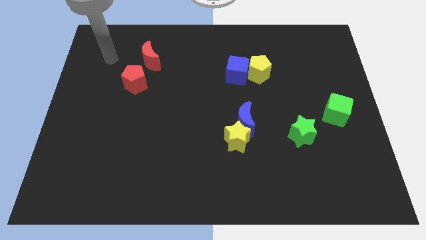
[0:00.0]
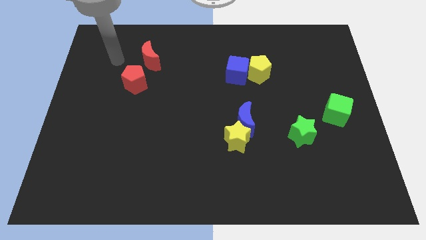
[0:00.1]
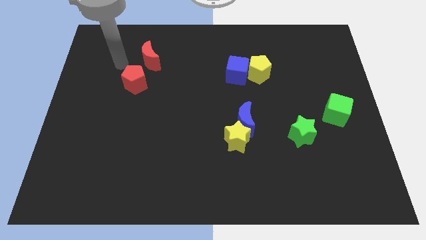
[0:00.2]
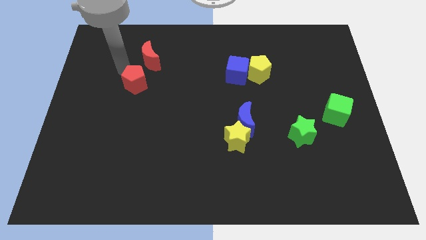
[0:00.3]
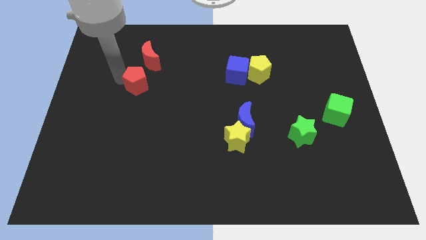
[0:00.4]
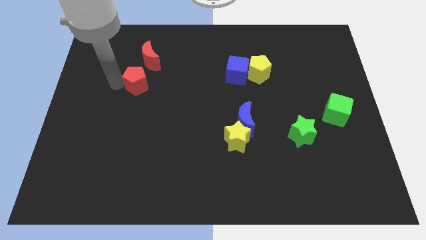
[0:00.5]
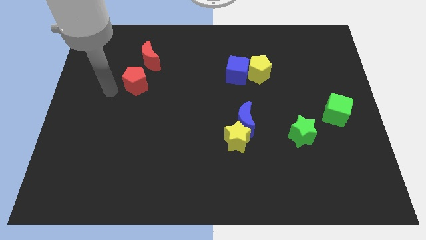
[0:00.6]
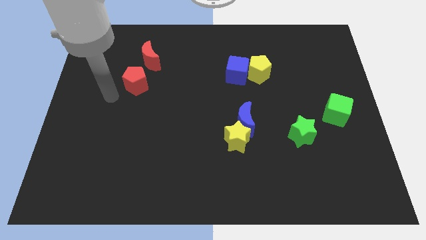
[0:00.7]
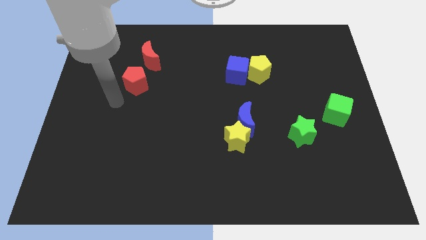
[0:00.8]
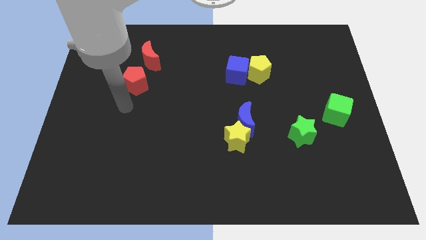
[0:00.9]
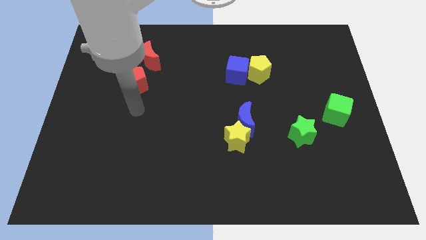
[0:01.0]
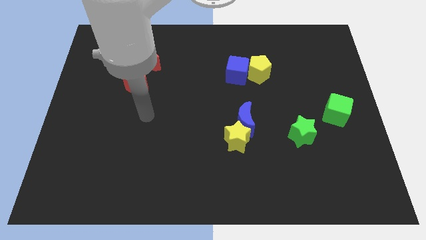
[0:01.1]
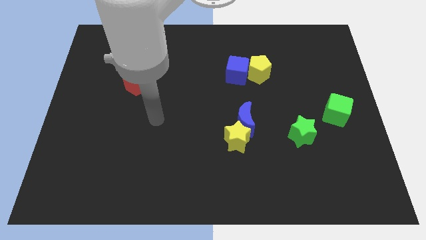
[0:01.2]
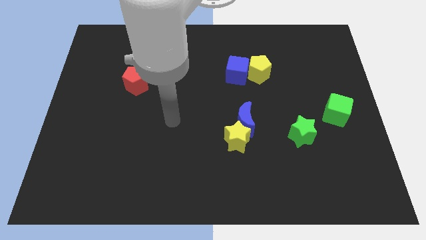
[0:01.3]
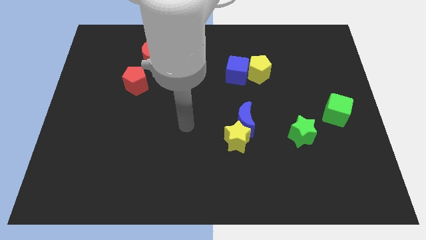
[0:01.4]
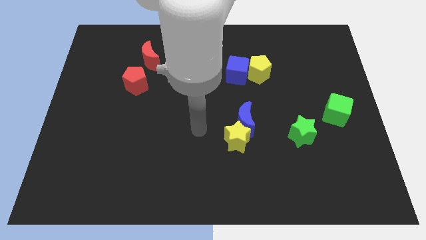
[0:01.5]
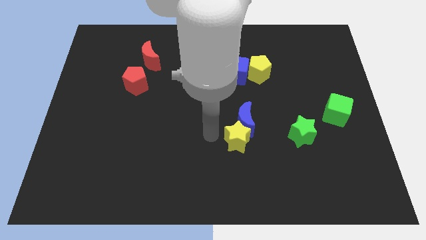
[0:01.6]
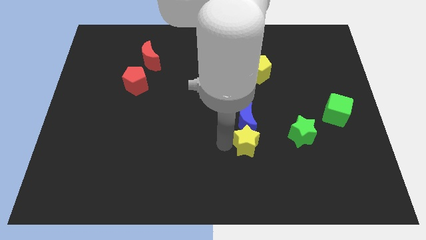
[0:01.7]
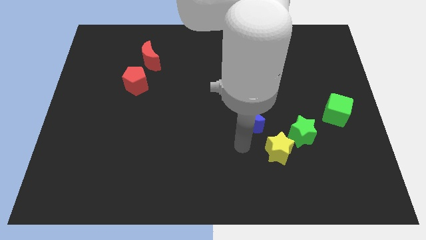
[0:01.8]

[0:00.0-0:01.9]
separate the blue moon from the yellow star

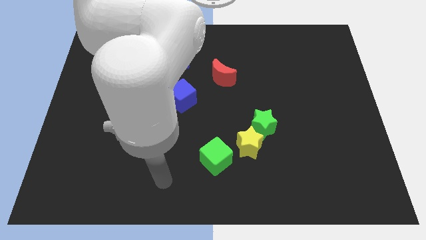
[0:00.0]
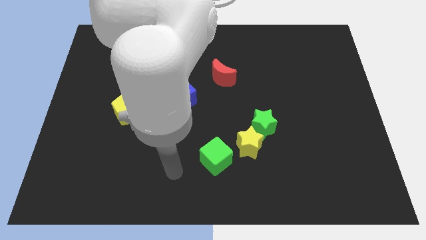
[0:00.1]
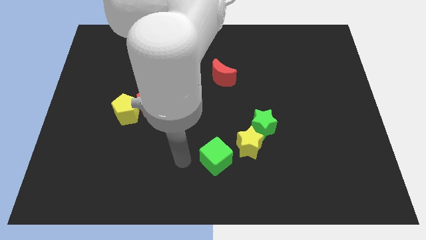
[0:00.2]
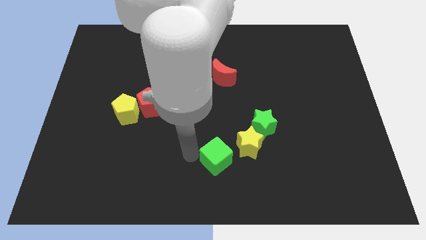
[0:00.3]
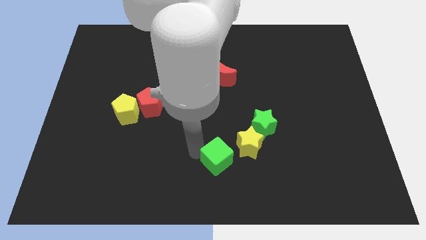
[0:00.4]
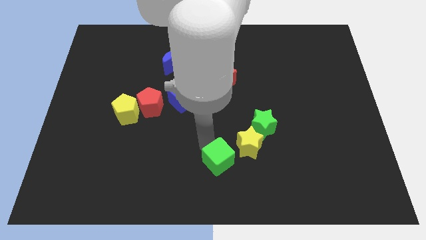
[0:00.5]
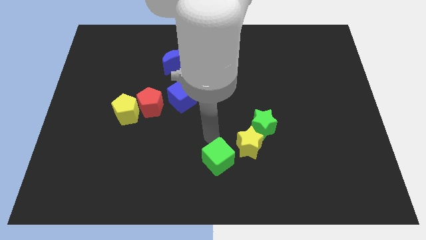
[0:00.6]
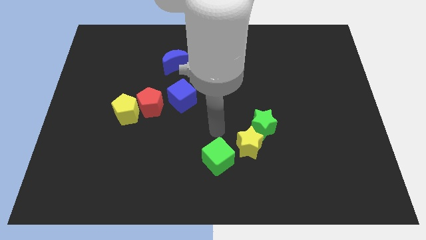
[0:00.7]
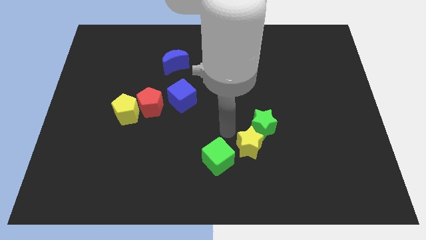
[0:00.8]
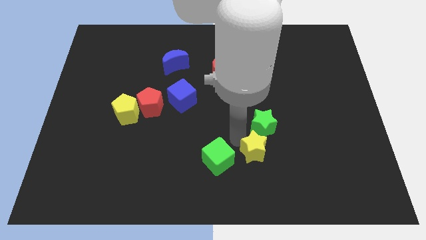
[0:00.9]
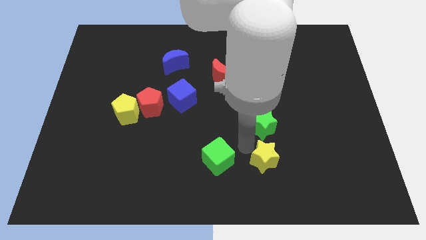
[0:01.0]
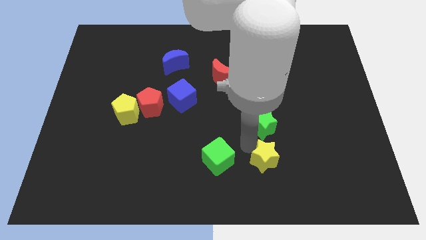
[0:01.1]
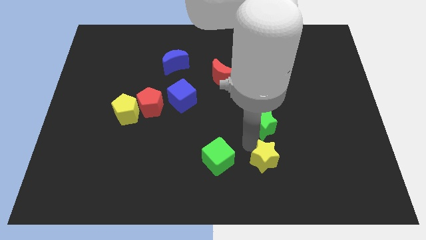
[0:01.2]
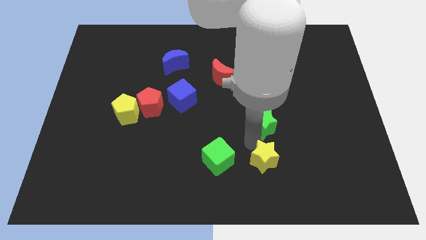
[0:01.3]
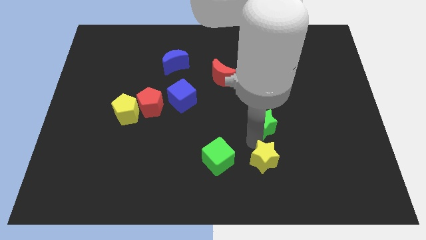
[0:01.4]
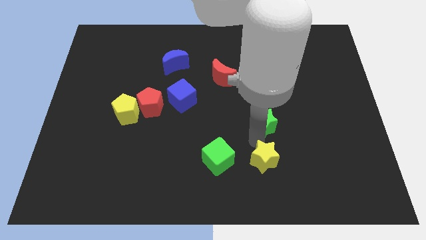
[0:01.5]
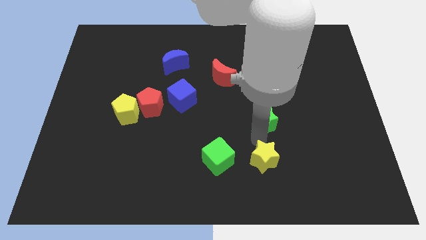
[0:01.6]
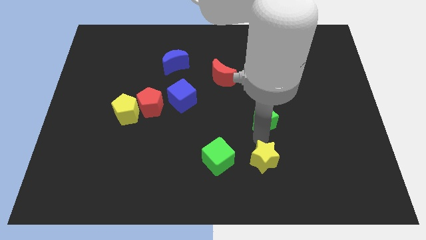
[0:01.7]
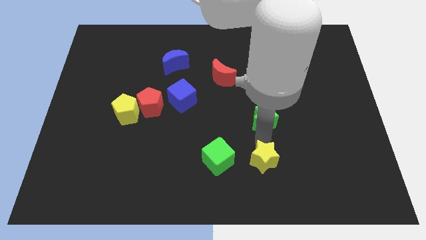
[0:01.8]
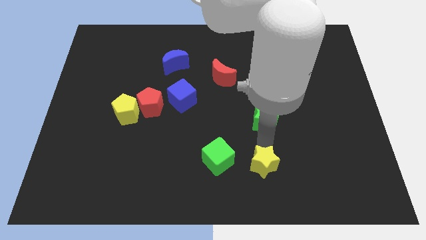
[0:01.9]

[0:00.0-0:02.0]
separate the green star from the yellow star

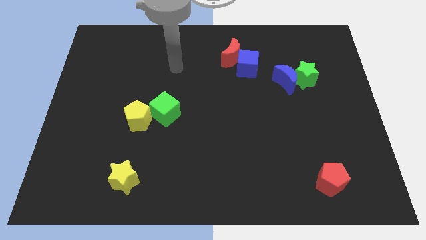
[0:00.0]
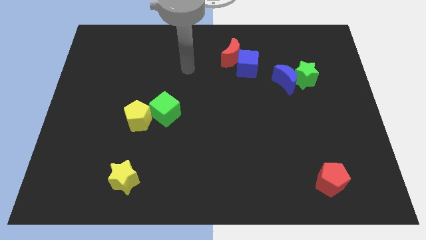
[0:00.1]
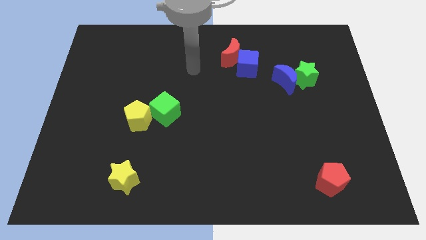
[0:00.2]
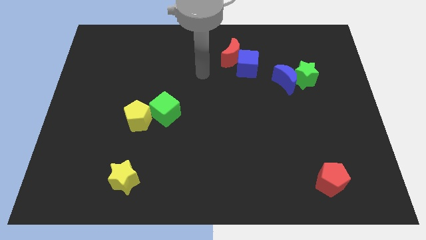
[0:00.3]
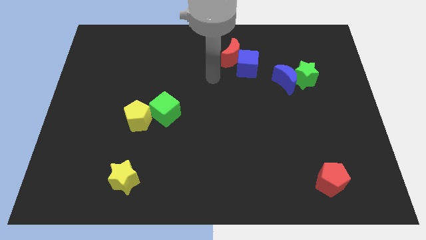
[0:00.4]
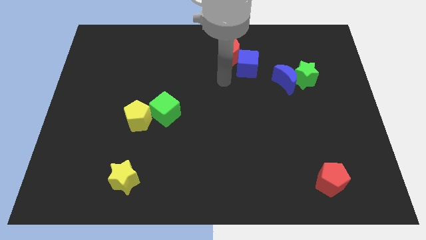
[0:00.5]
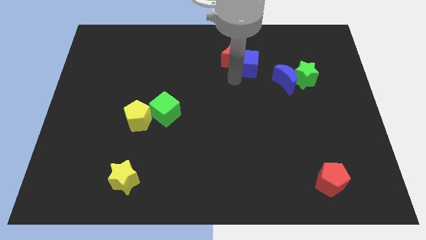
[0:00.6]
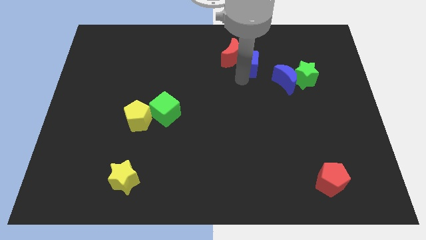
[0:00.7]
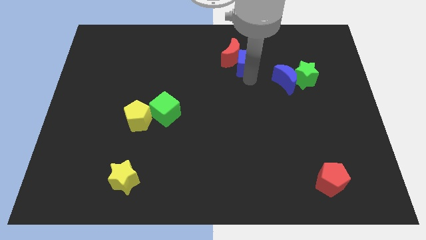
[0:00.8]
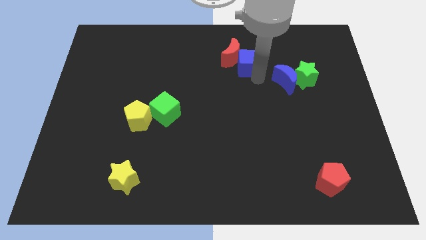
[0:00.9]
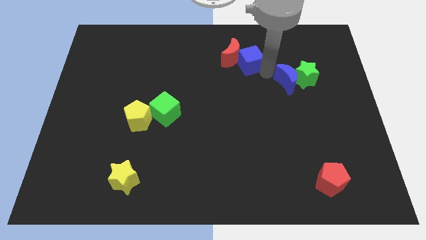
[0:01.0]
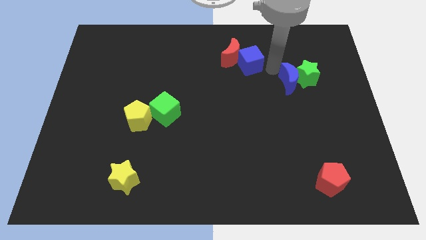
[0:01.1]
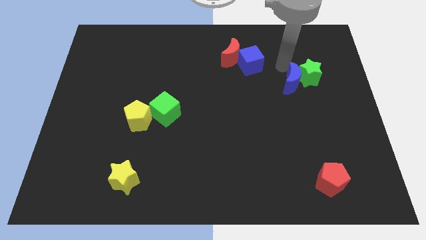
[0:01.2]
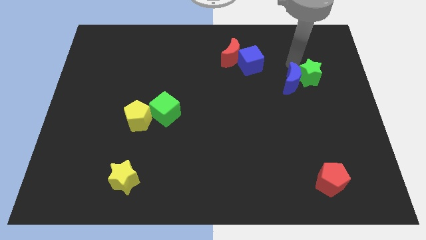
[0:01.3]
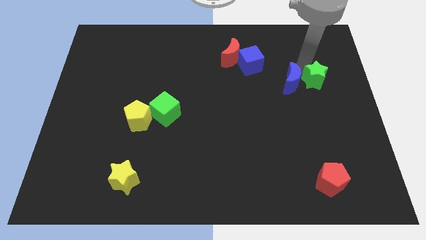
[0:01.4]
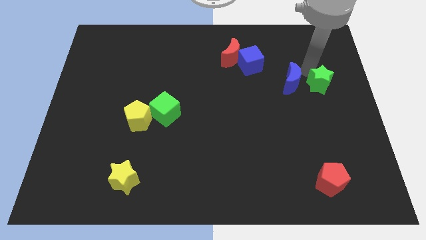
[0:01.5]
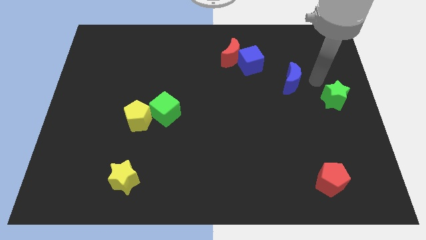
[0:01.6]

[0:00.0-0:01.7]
move the blue moon away from the green star

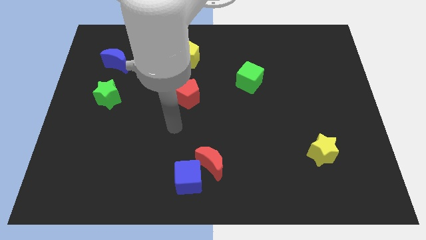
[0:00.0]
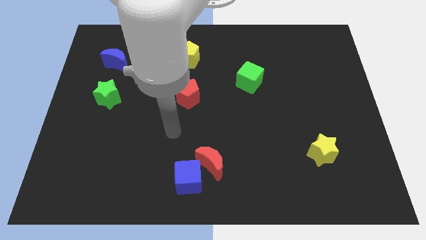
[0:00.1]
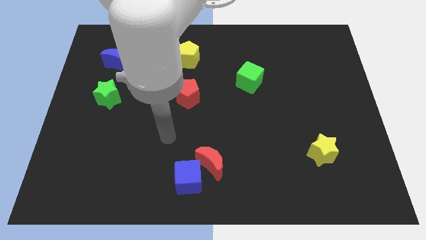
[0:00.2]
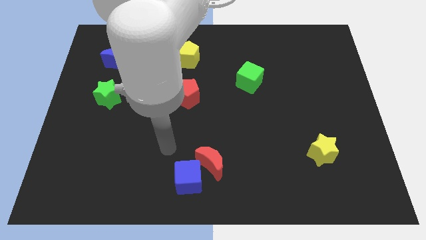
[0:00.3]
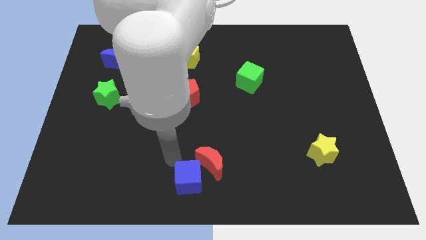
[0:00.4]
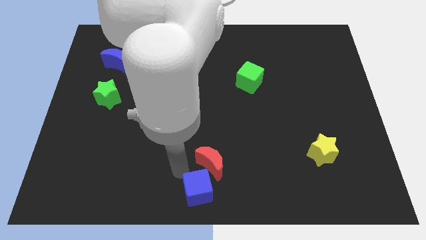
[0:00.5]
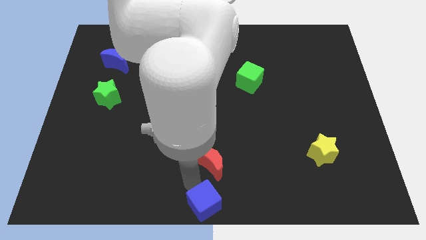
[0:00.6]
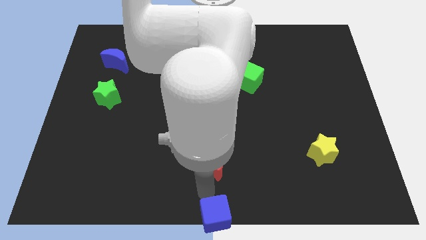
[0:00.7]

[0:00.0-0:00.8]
pull the red moon apart from the blue cube

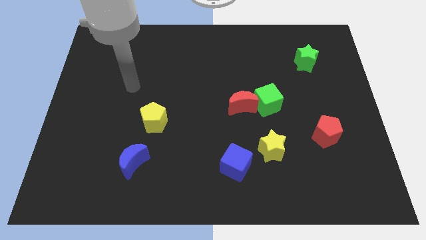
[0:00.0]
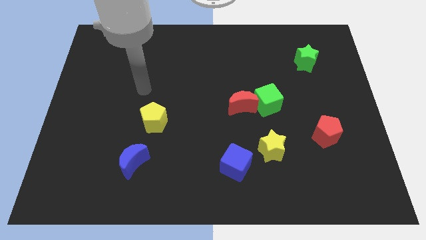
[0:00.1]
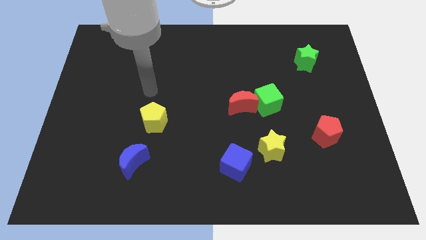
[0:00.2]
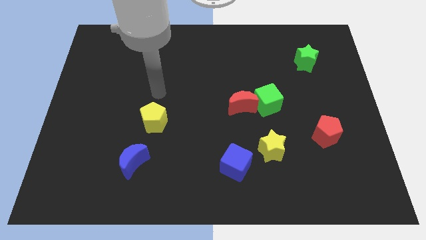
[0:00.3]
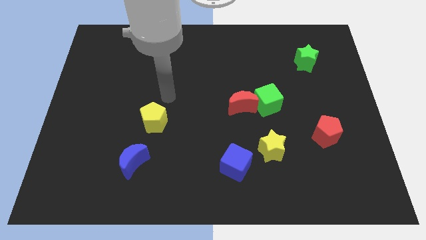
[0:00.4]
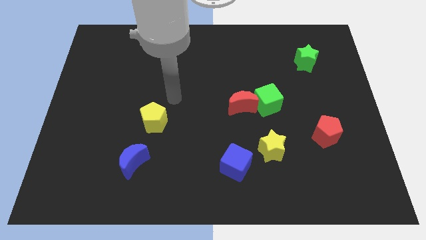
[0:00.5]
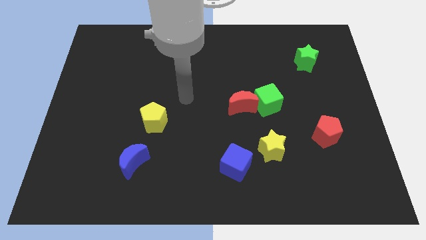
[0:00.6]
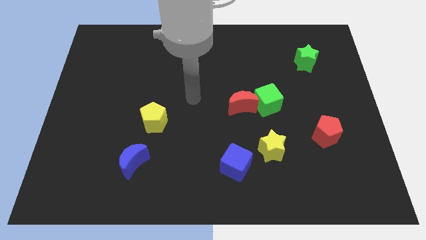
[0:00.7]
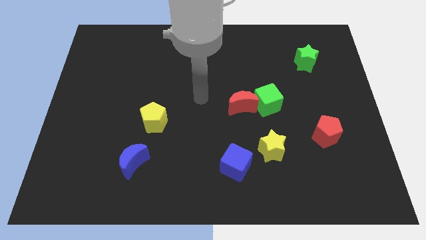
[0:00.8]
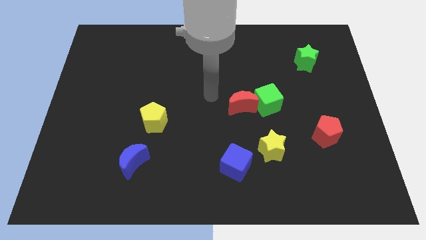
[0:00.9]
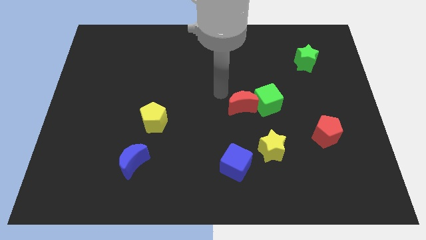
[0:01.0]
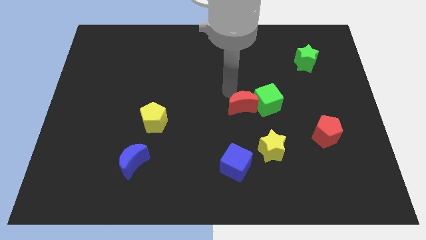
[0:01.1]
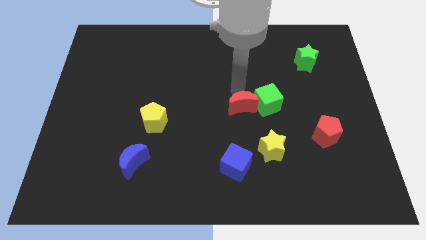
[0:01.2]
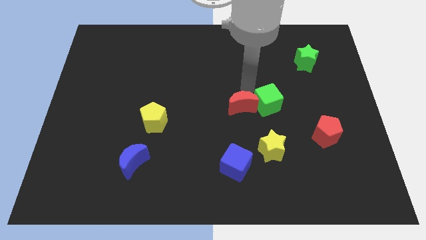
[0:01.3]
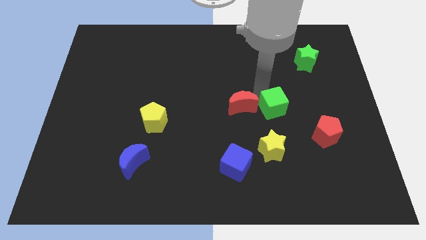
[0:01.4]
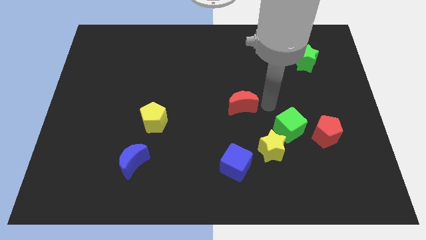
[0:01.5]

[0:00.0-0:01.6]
separate the red moon from the green cube

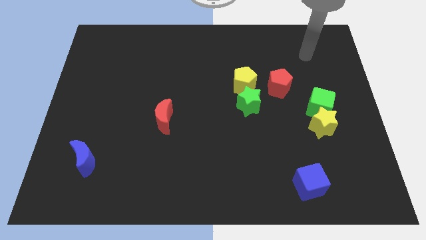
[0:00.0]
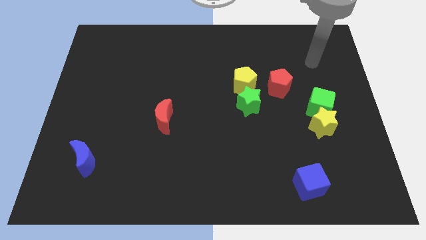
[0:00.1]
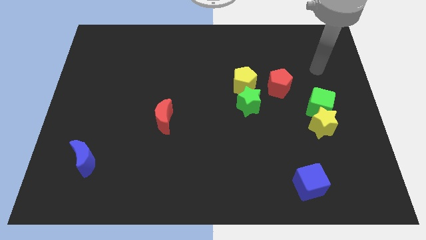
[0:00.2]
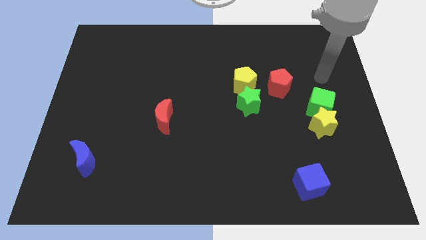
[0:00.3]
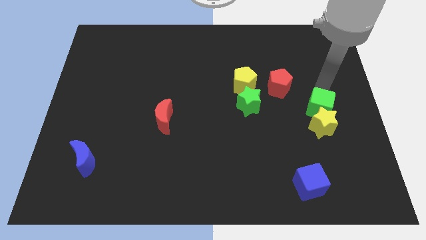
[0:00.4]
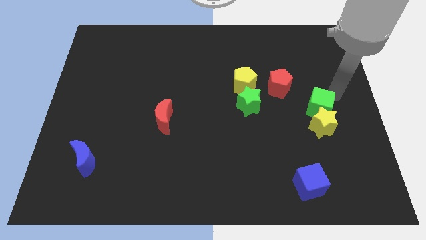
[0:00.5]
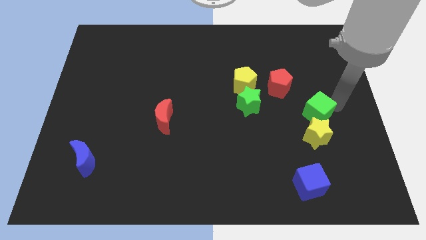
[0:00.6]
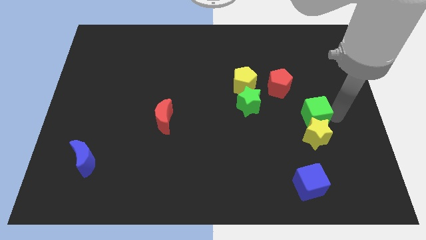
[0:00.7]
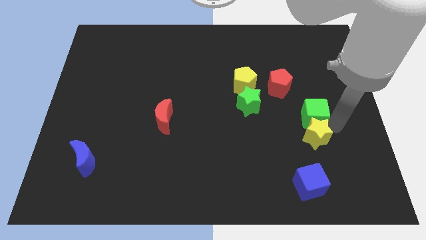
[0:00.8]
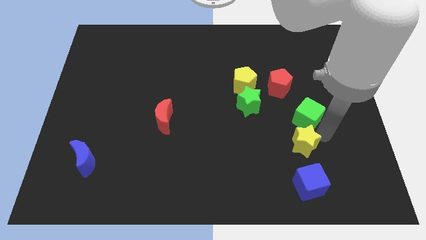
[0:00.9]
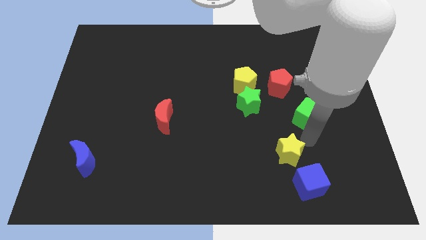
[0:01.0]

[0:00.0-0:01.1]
move the green cube away from the yellow star
